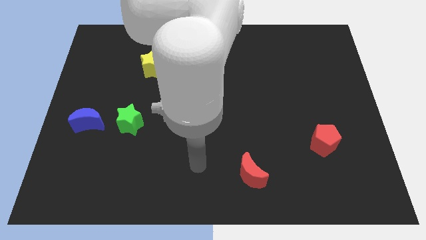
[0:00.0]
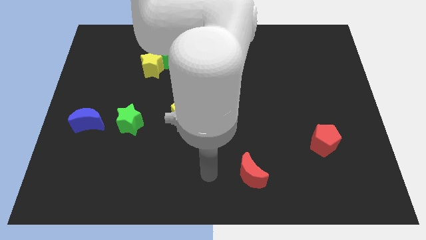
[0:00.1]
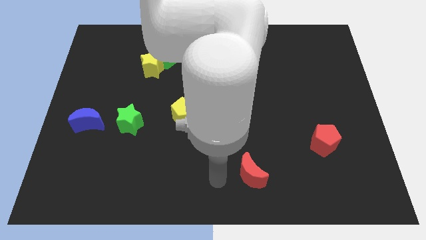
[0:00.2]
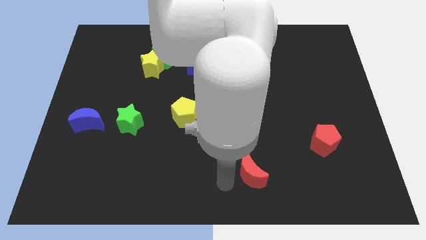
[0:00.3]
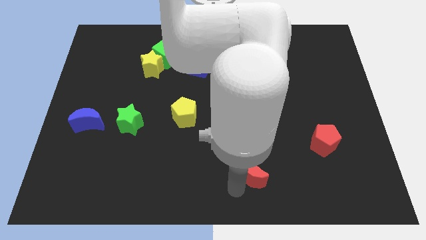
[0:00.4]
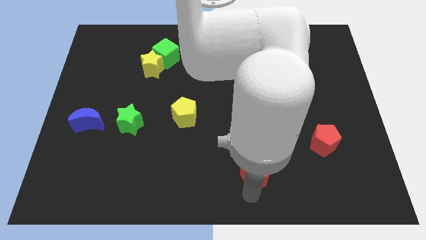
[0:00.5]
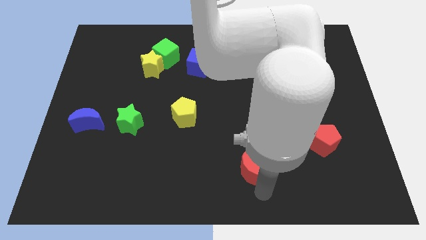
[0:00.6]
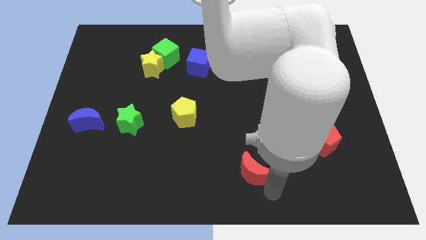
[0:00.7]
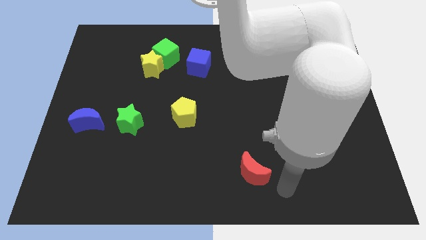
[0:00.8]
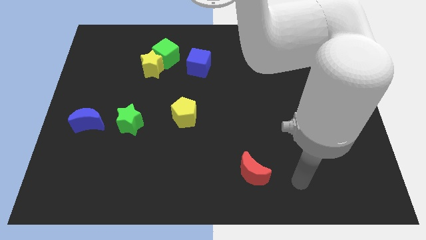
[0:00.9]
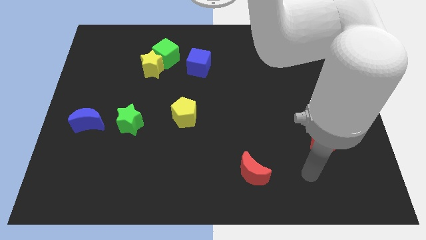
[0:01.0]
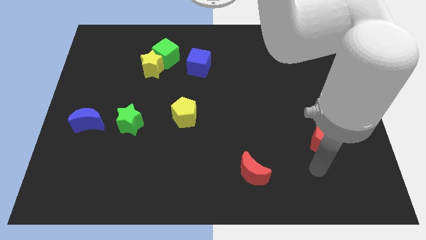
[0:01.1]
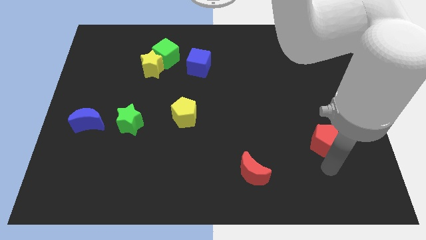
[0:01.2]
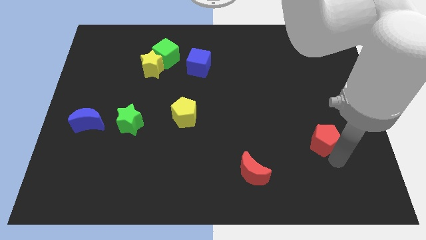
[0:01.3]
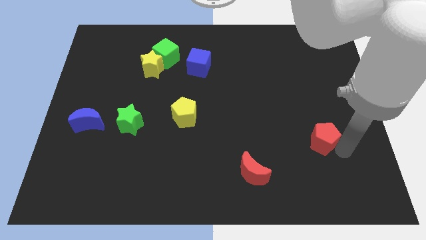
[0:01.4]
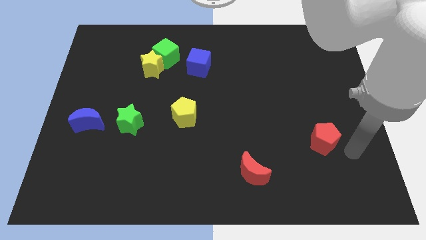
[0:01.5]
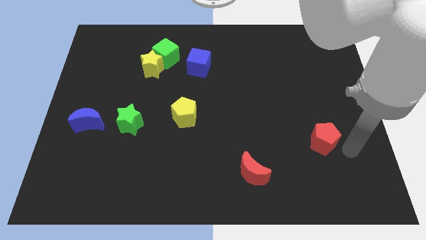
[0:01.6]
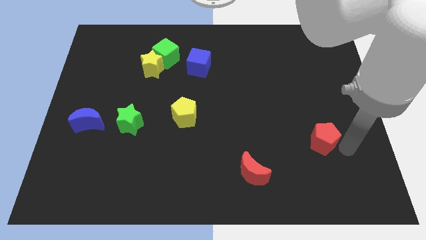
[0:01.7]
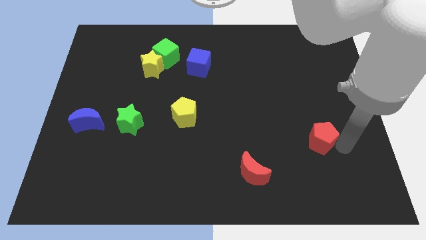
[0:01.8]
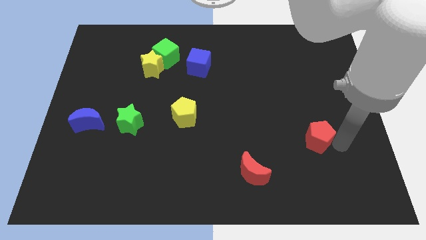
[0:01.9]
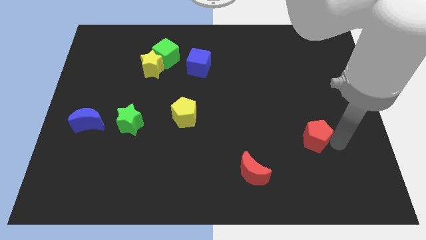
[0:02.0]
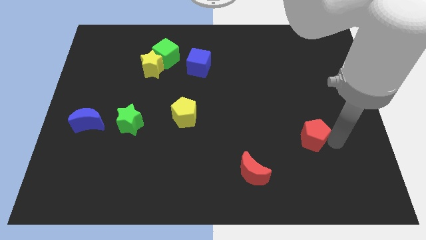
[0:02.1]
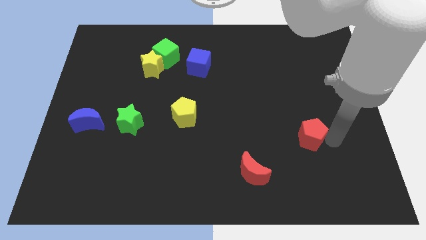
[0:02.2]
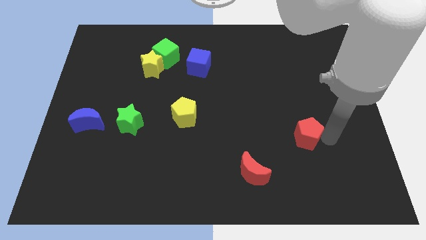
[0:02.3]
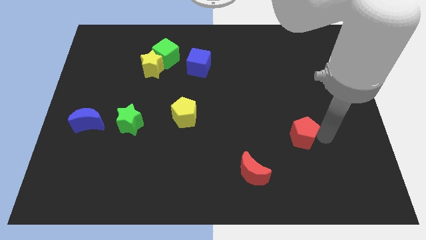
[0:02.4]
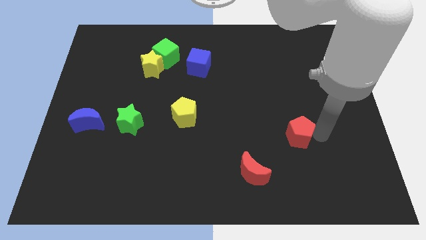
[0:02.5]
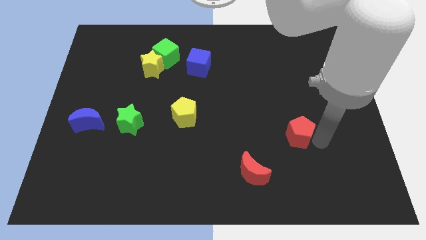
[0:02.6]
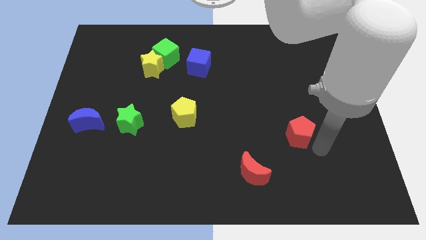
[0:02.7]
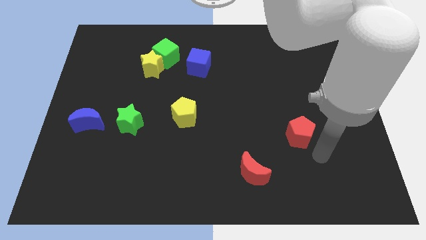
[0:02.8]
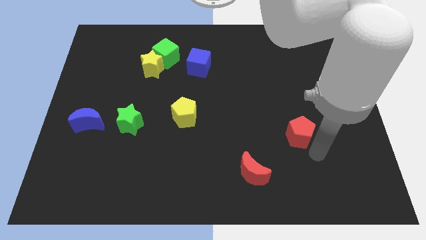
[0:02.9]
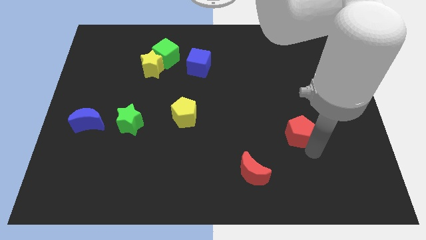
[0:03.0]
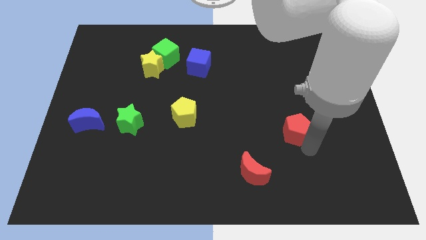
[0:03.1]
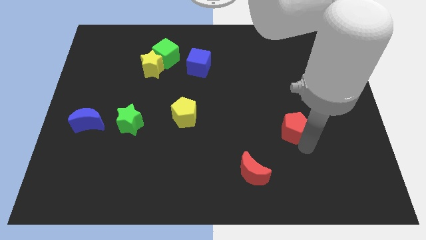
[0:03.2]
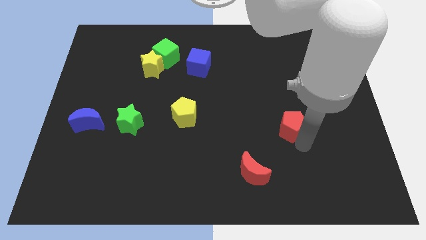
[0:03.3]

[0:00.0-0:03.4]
slightly move the red pentagon up and to the left diagonally

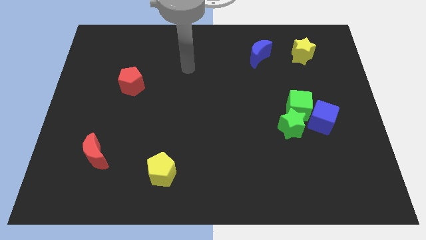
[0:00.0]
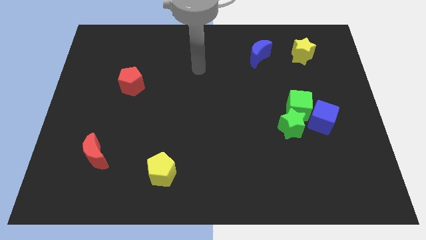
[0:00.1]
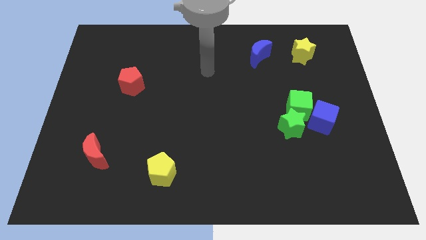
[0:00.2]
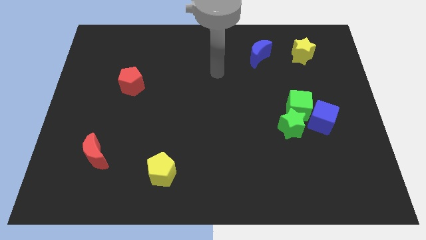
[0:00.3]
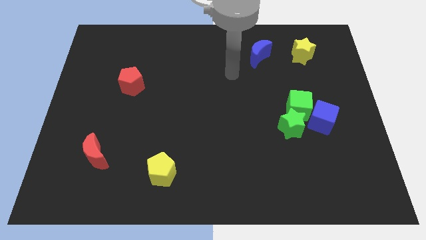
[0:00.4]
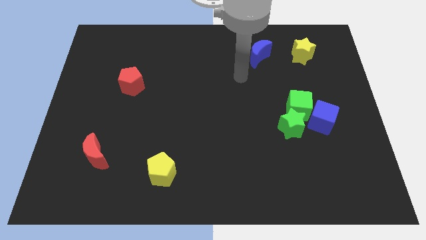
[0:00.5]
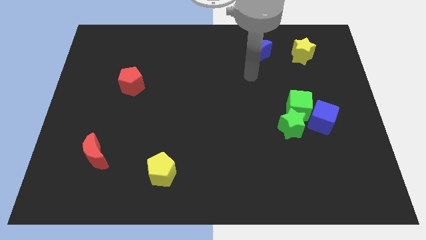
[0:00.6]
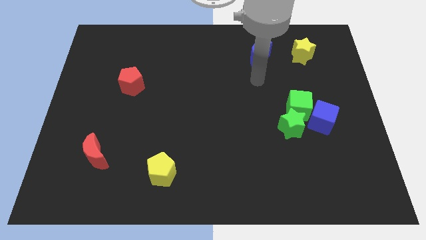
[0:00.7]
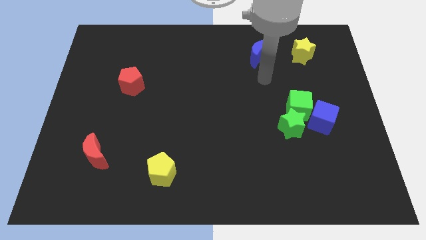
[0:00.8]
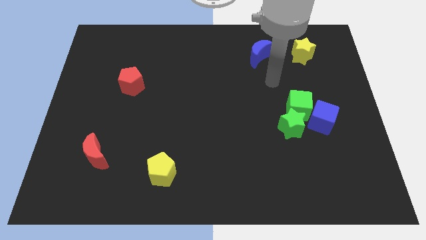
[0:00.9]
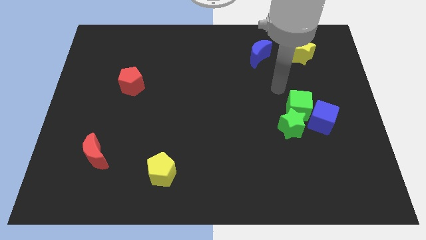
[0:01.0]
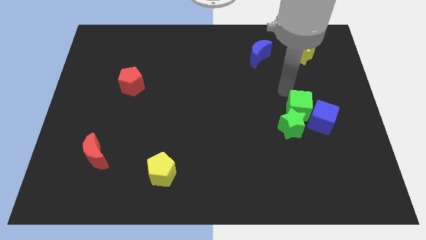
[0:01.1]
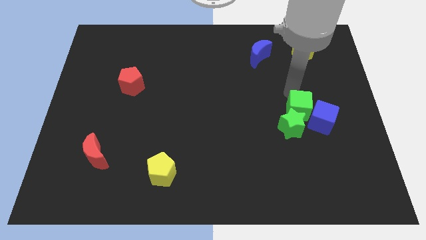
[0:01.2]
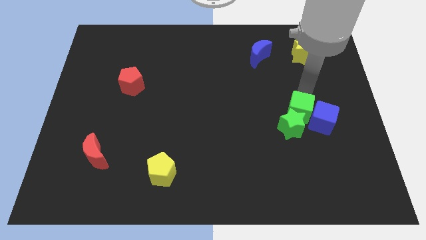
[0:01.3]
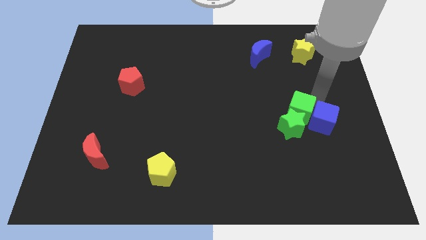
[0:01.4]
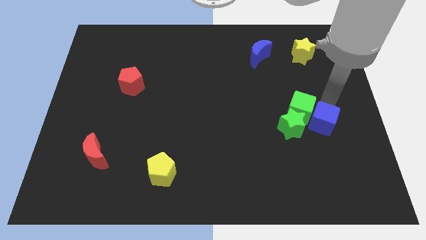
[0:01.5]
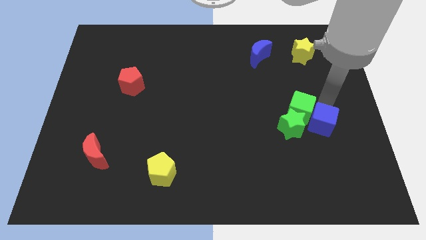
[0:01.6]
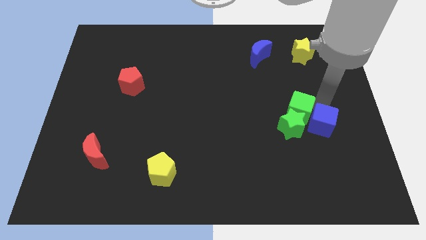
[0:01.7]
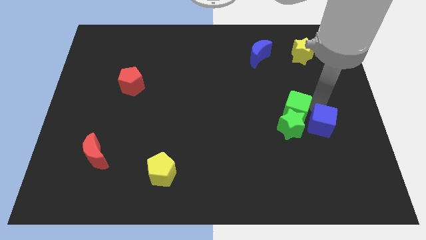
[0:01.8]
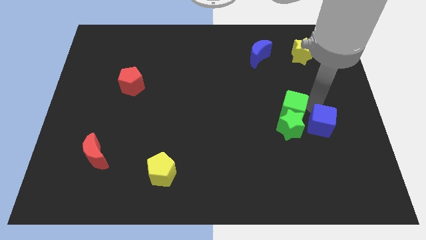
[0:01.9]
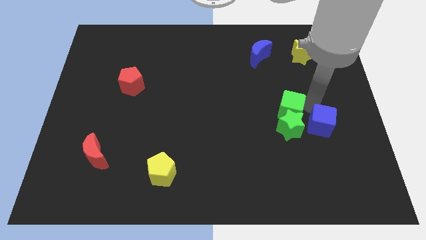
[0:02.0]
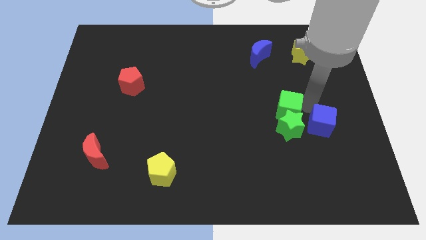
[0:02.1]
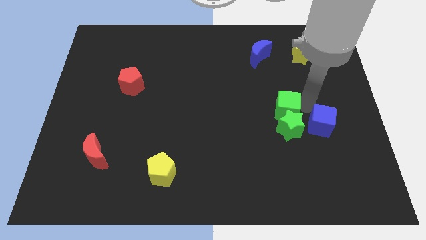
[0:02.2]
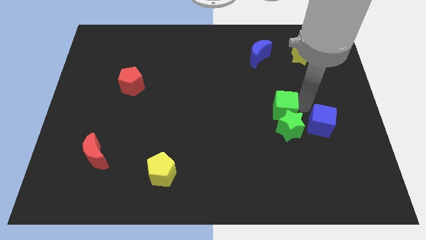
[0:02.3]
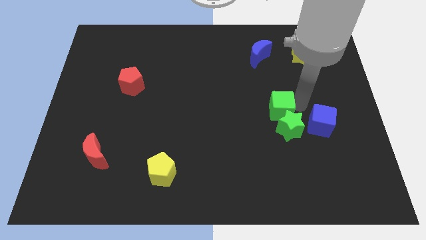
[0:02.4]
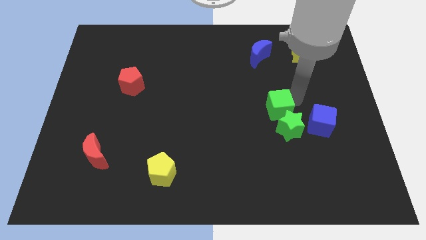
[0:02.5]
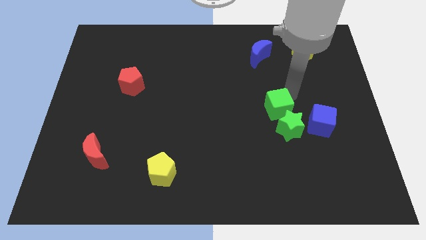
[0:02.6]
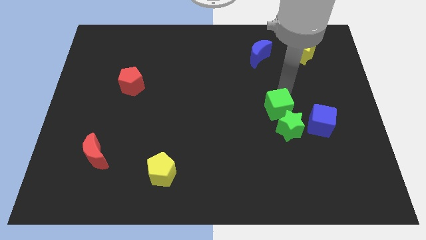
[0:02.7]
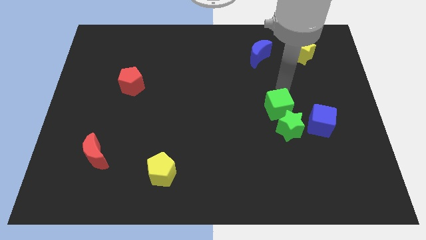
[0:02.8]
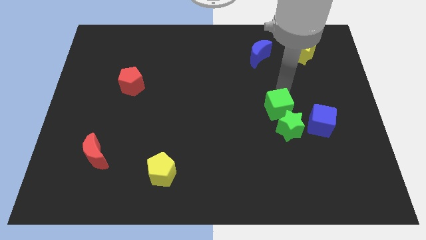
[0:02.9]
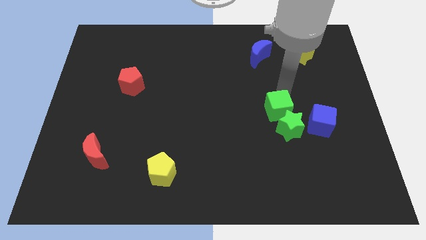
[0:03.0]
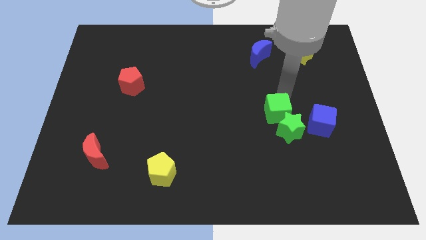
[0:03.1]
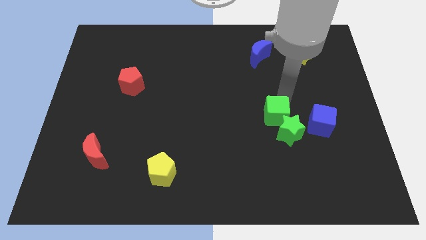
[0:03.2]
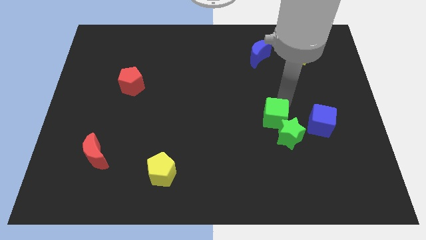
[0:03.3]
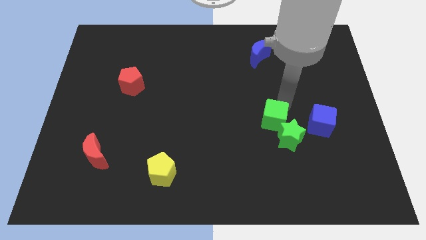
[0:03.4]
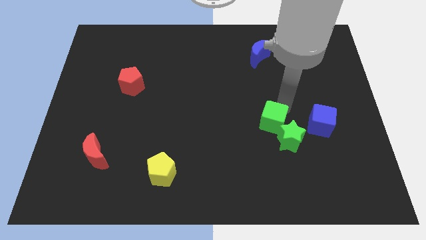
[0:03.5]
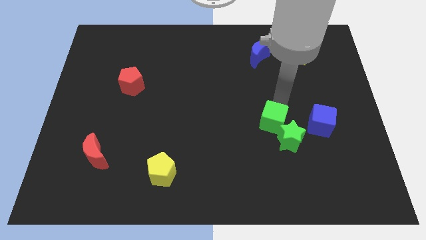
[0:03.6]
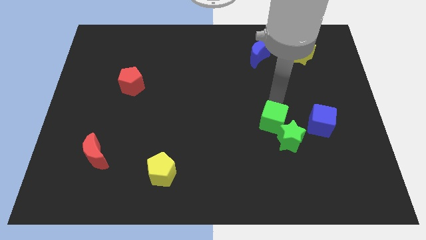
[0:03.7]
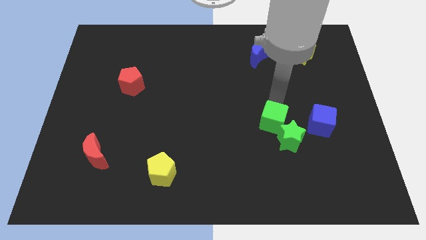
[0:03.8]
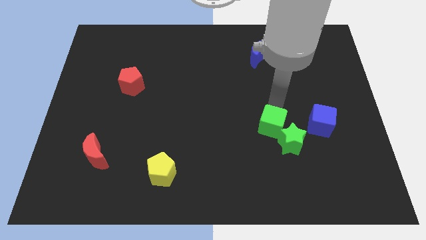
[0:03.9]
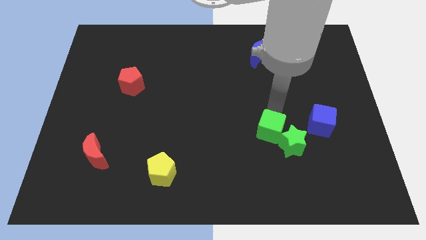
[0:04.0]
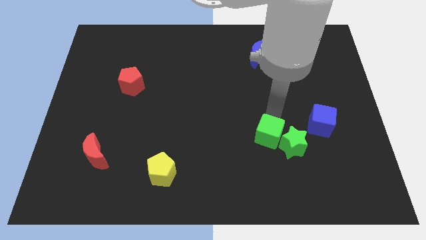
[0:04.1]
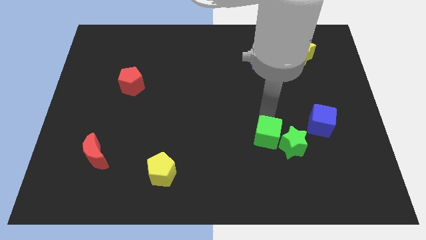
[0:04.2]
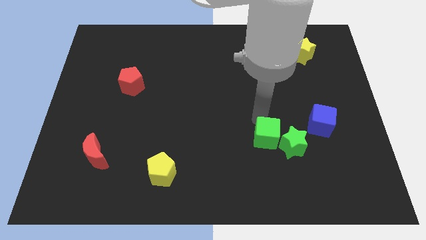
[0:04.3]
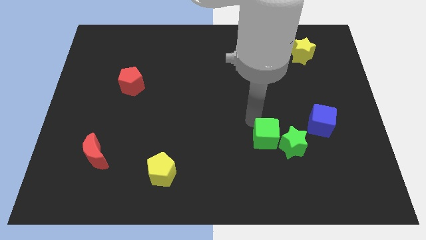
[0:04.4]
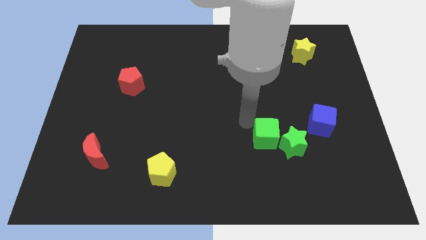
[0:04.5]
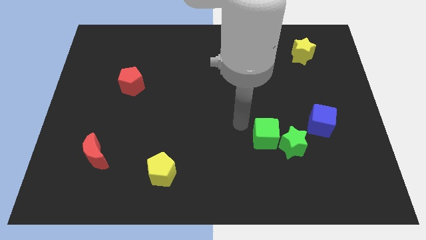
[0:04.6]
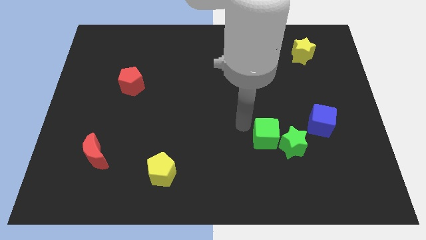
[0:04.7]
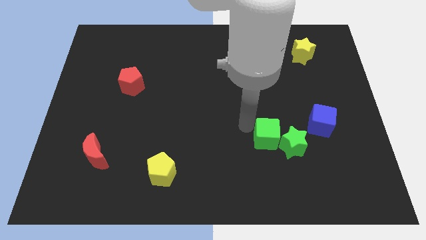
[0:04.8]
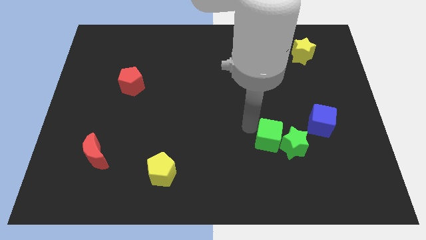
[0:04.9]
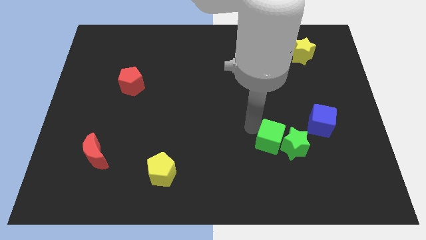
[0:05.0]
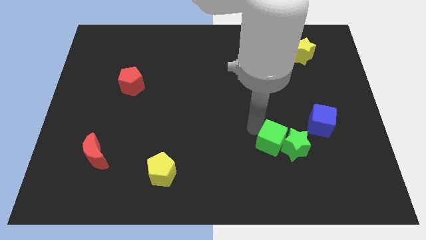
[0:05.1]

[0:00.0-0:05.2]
push the green cube downwards a little
